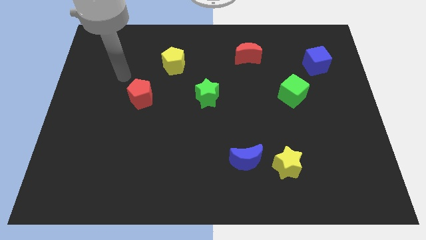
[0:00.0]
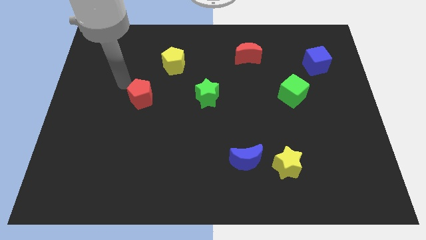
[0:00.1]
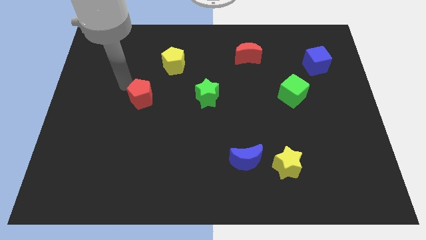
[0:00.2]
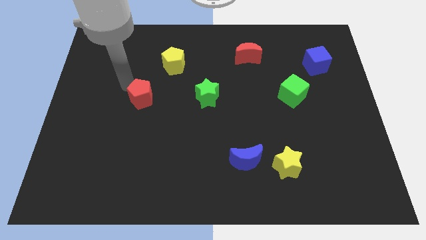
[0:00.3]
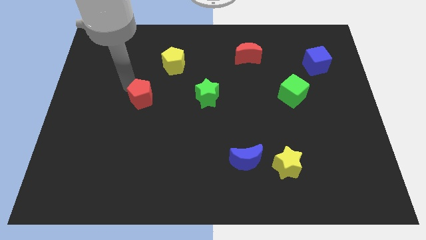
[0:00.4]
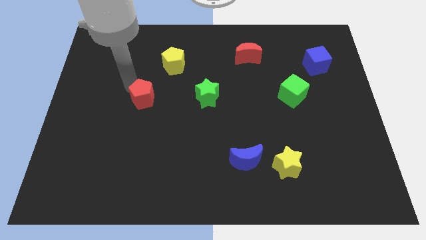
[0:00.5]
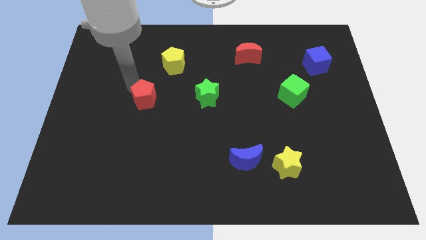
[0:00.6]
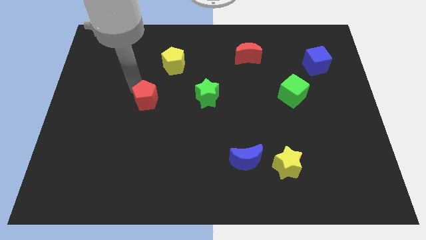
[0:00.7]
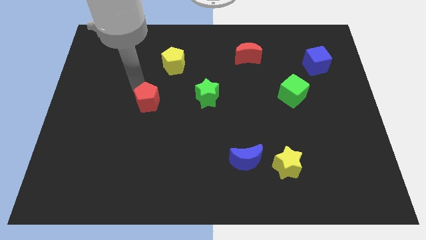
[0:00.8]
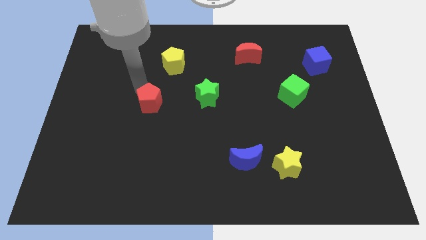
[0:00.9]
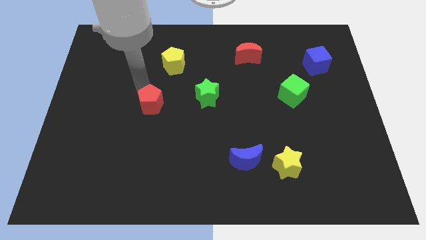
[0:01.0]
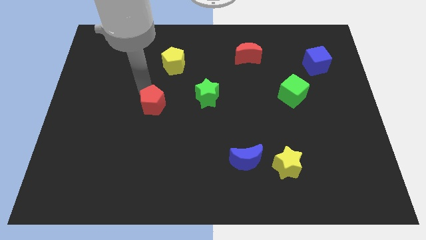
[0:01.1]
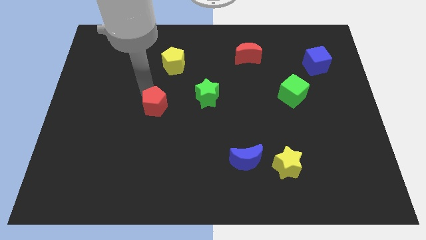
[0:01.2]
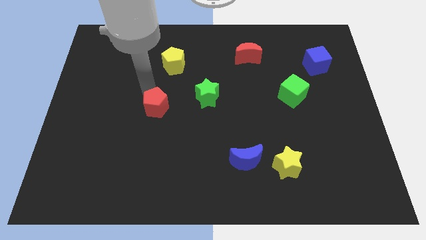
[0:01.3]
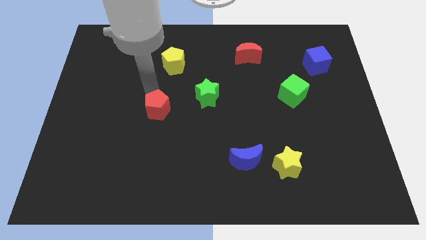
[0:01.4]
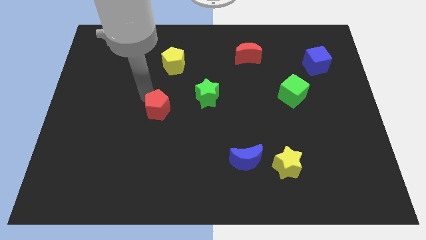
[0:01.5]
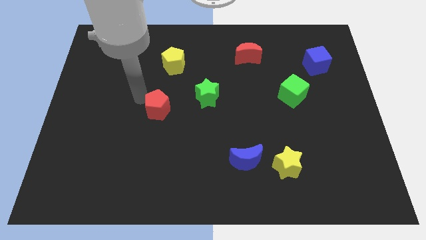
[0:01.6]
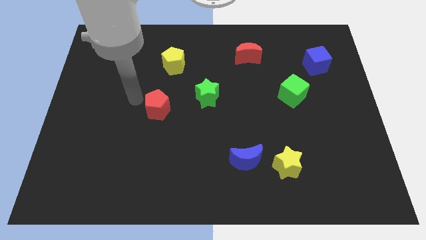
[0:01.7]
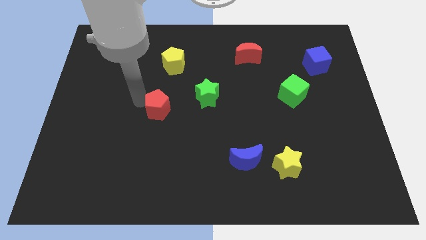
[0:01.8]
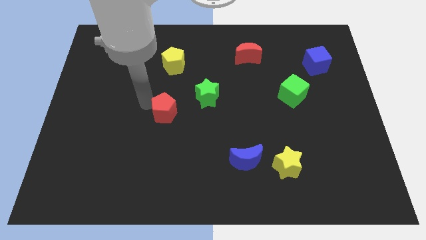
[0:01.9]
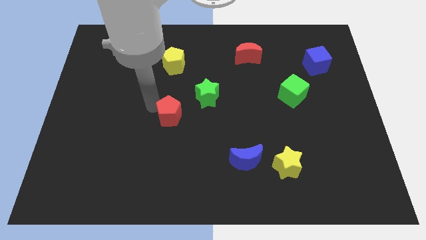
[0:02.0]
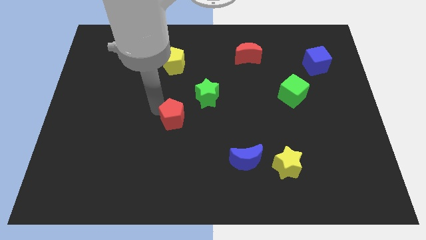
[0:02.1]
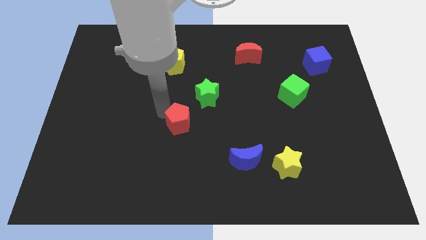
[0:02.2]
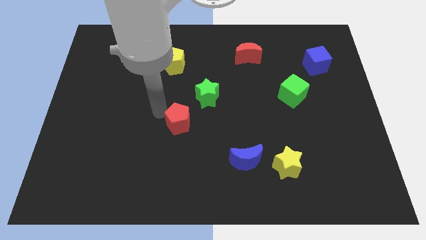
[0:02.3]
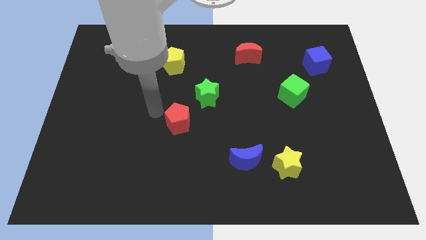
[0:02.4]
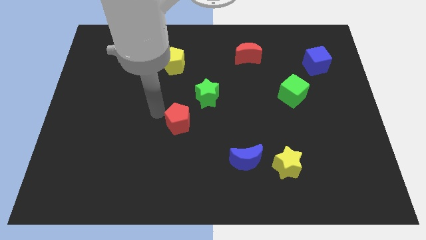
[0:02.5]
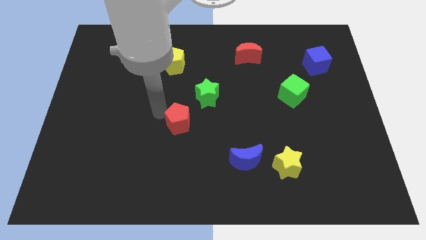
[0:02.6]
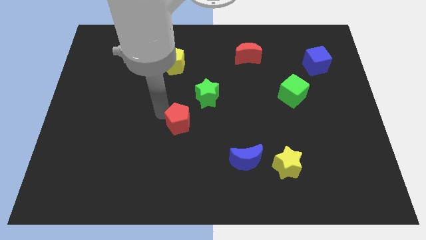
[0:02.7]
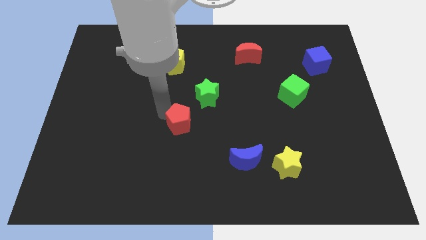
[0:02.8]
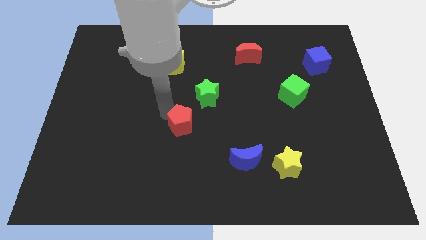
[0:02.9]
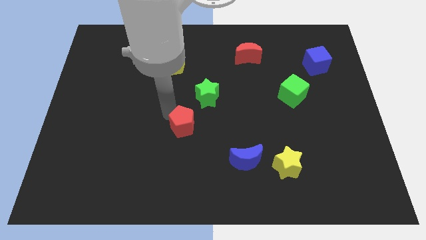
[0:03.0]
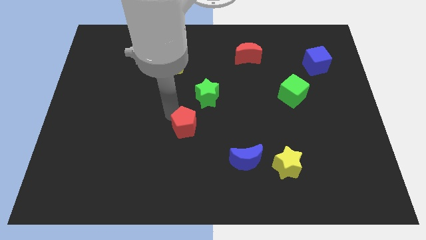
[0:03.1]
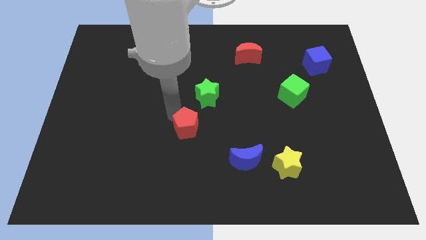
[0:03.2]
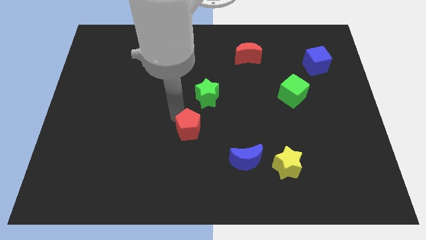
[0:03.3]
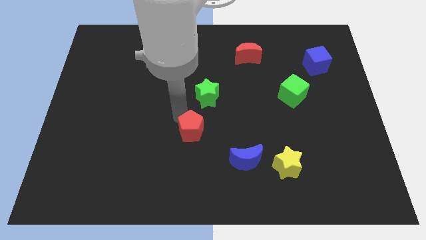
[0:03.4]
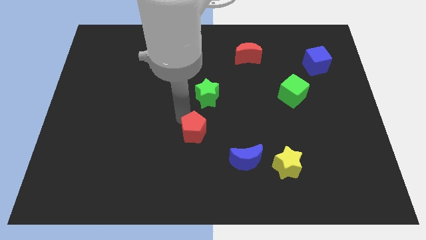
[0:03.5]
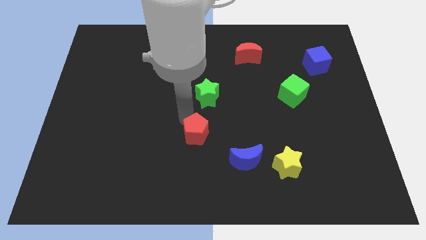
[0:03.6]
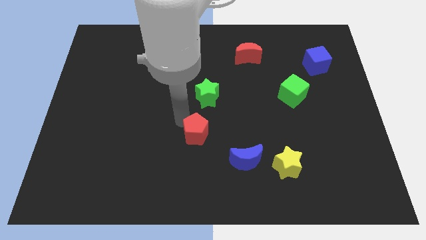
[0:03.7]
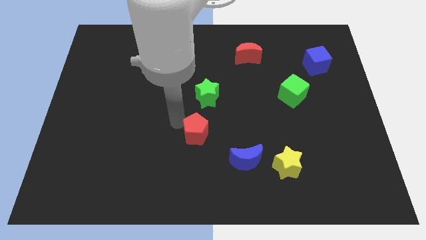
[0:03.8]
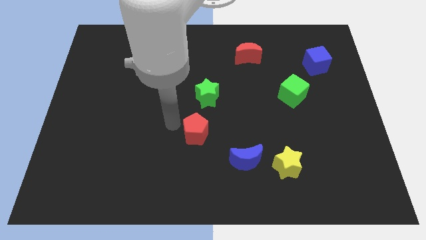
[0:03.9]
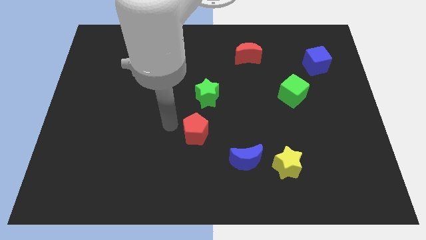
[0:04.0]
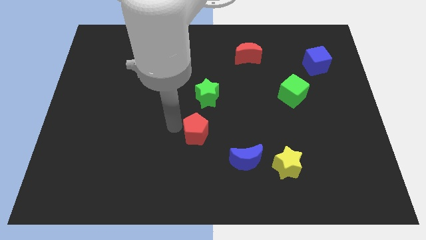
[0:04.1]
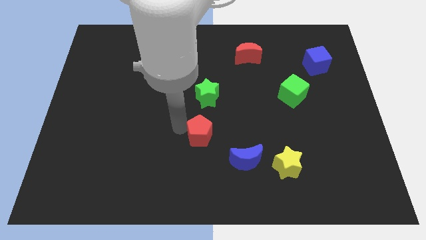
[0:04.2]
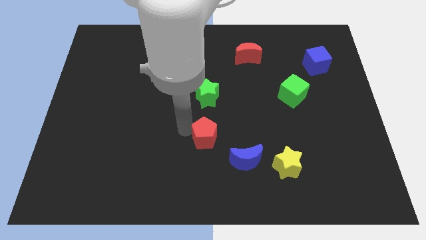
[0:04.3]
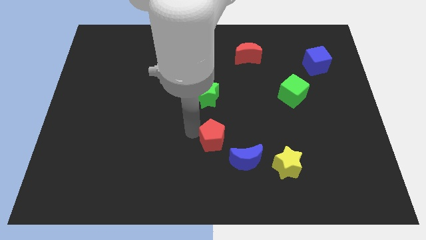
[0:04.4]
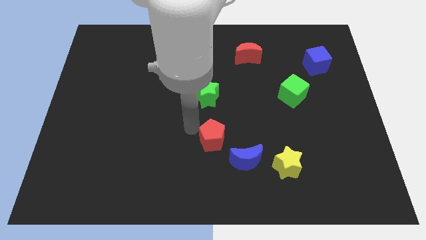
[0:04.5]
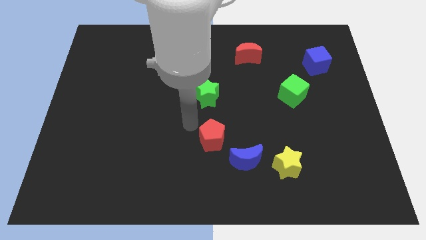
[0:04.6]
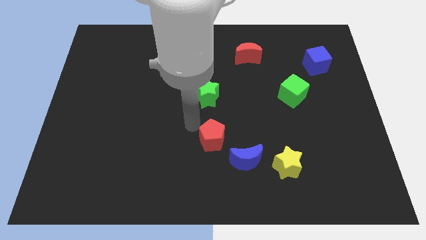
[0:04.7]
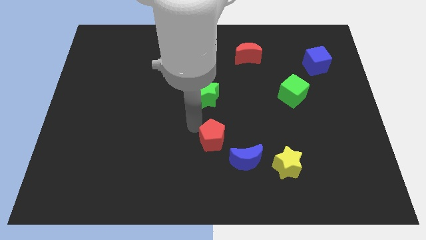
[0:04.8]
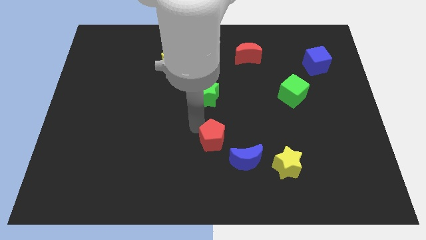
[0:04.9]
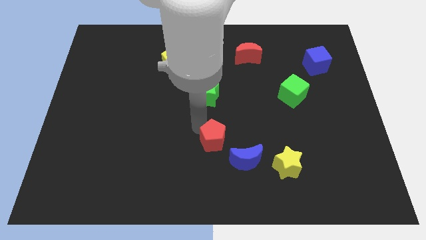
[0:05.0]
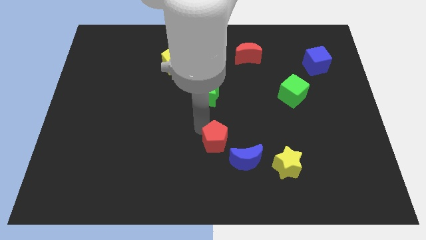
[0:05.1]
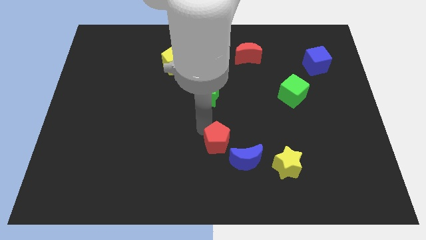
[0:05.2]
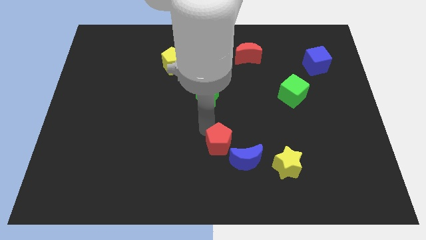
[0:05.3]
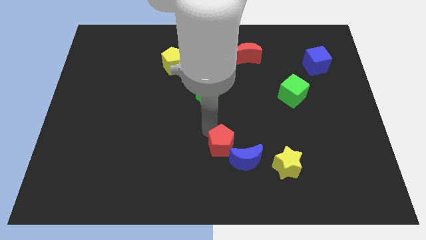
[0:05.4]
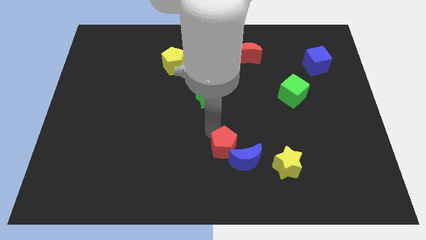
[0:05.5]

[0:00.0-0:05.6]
move the red pentagon next to the blue moon
